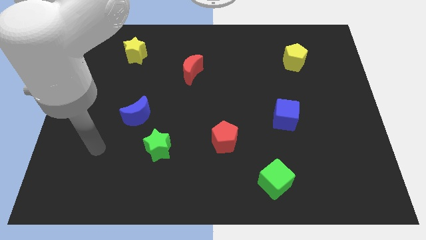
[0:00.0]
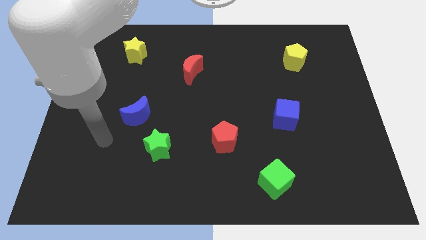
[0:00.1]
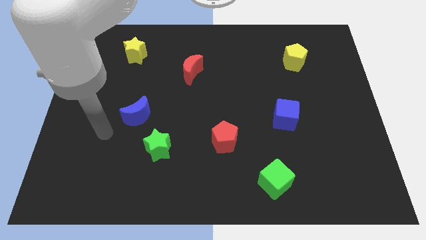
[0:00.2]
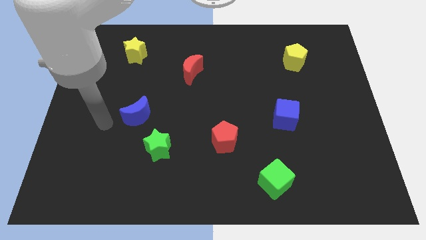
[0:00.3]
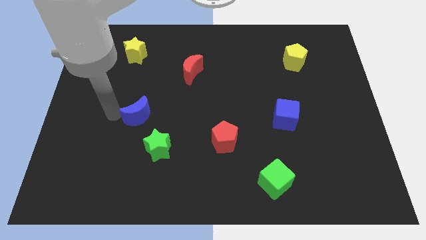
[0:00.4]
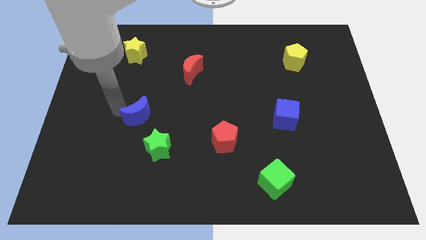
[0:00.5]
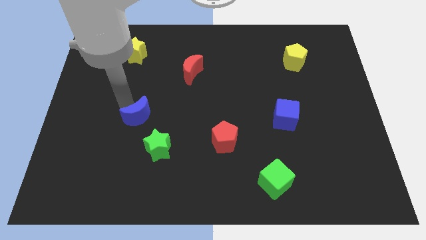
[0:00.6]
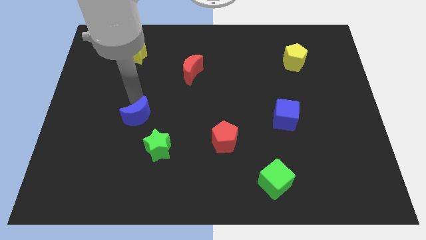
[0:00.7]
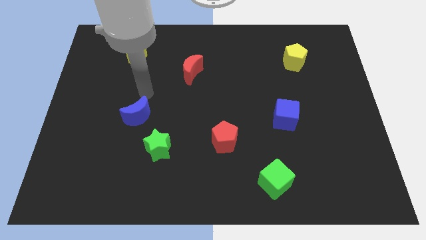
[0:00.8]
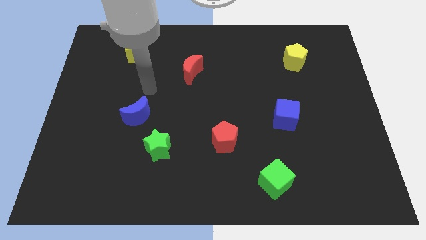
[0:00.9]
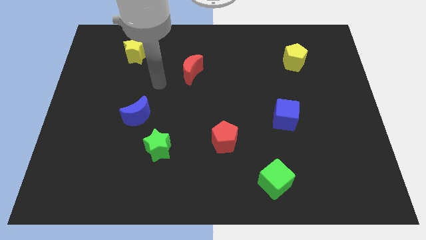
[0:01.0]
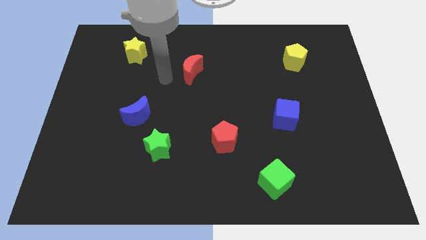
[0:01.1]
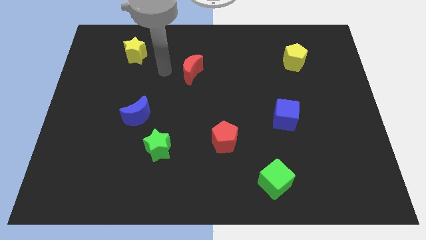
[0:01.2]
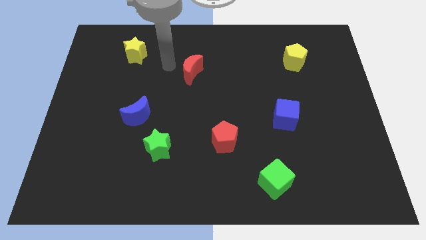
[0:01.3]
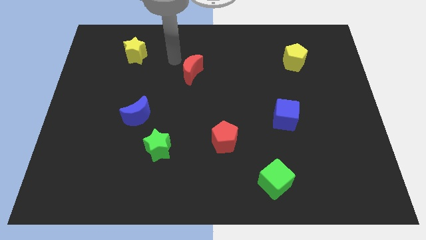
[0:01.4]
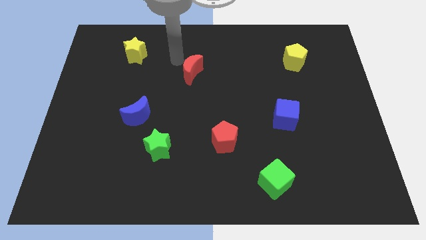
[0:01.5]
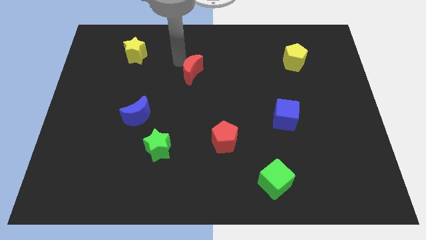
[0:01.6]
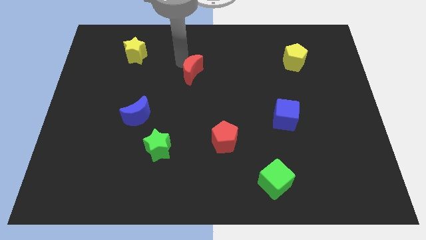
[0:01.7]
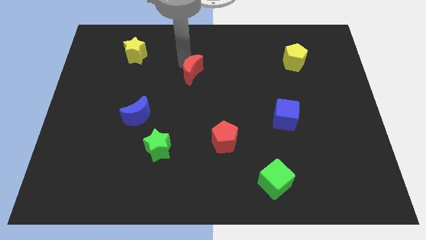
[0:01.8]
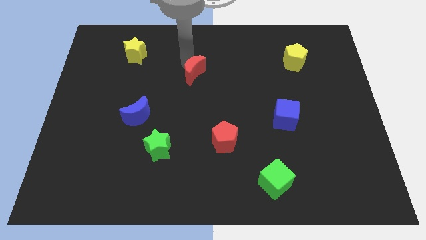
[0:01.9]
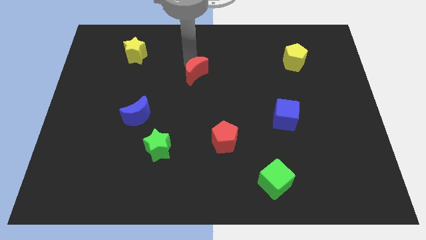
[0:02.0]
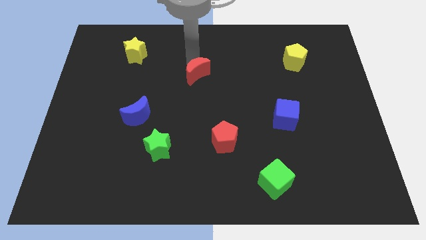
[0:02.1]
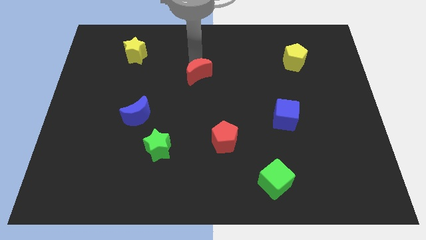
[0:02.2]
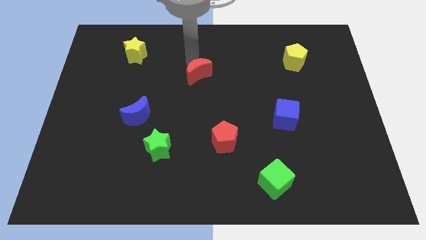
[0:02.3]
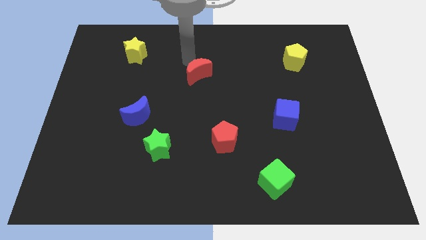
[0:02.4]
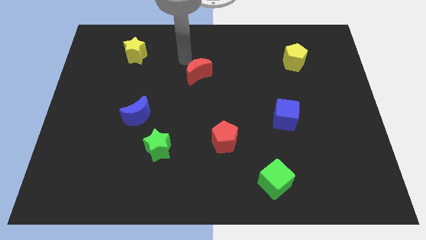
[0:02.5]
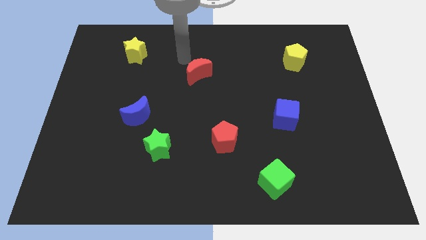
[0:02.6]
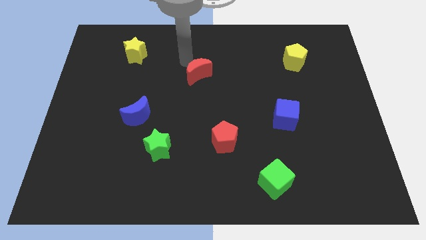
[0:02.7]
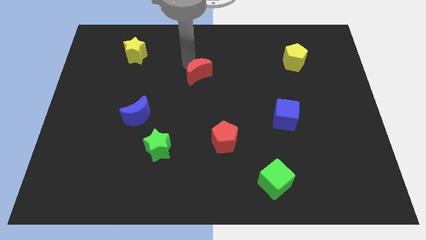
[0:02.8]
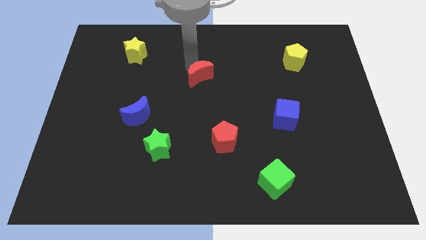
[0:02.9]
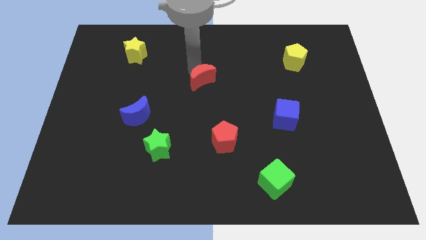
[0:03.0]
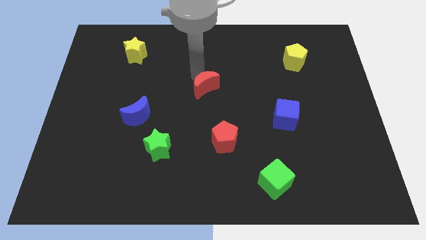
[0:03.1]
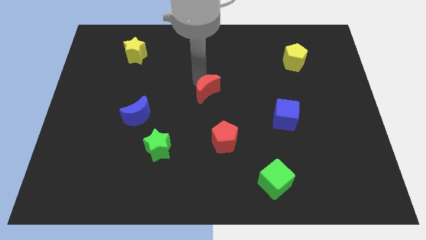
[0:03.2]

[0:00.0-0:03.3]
slide the red moon a little down and then to the right

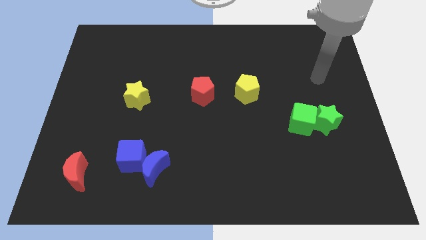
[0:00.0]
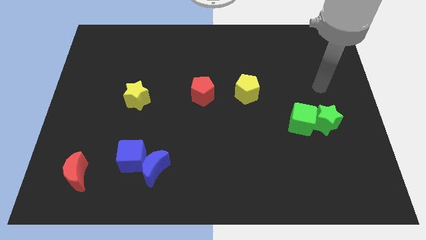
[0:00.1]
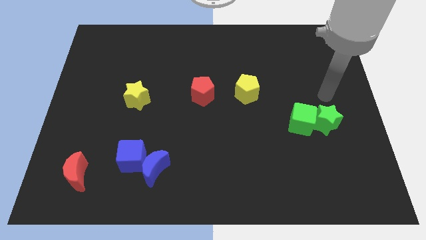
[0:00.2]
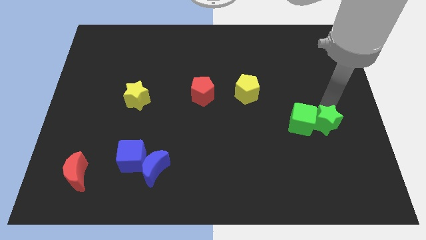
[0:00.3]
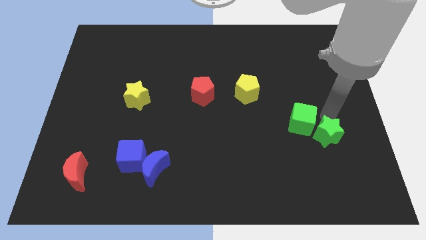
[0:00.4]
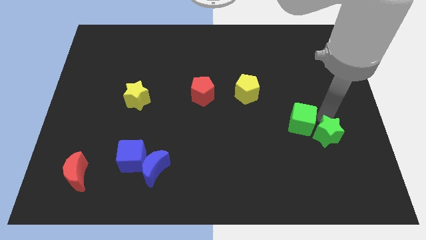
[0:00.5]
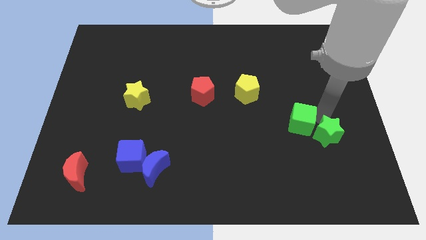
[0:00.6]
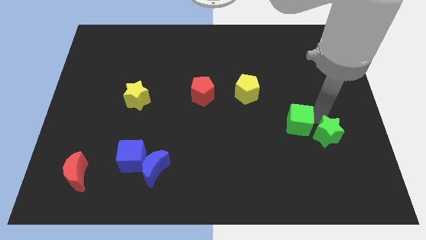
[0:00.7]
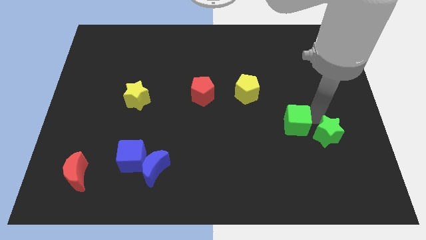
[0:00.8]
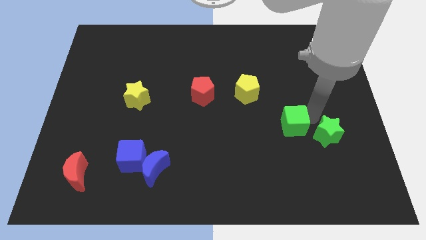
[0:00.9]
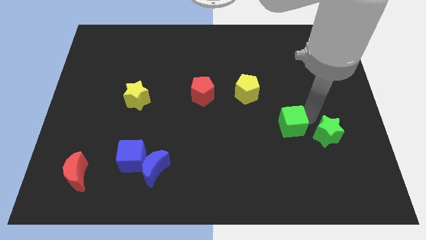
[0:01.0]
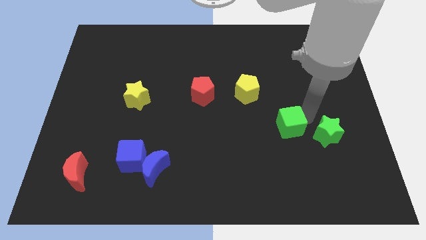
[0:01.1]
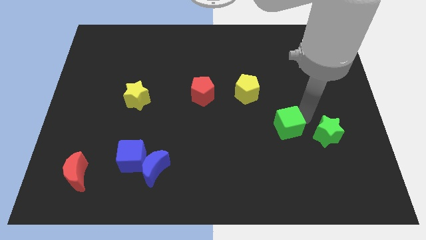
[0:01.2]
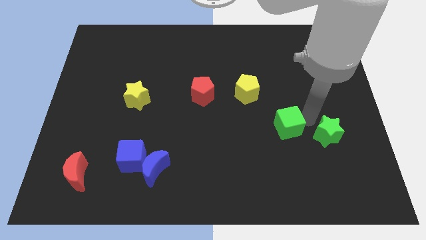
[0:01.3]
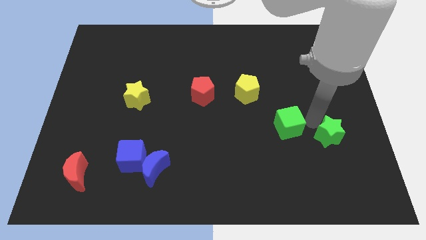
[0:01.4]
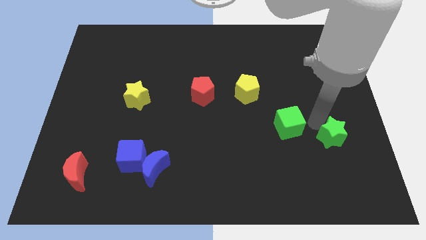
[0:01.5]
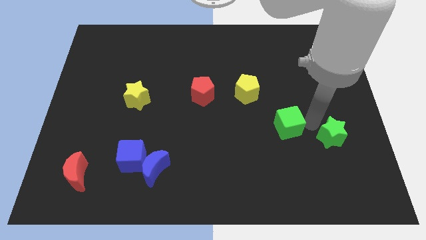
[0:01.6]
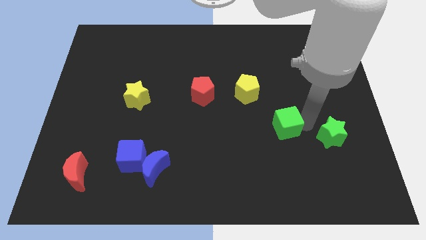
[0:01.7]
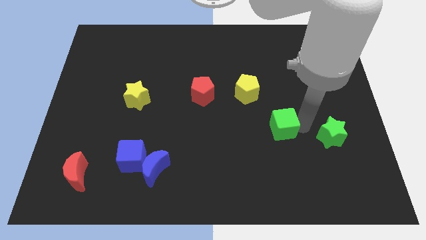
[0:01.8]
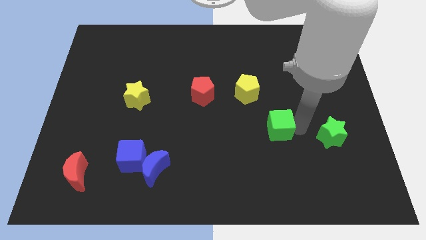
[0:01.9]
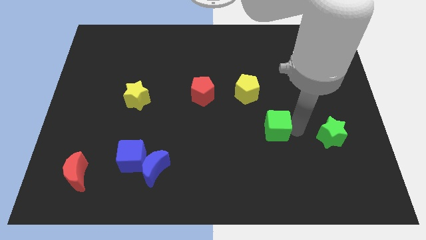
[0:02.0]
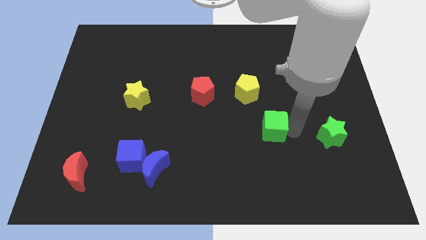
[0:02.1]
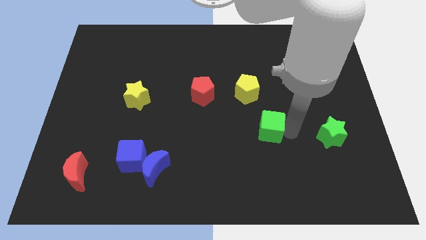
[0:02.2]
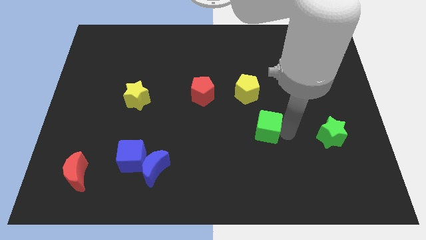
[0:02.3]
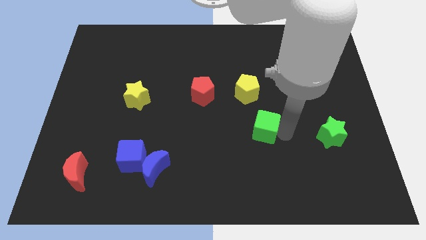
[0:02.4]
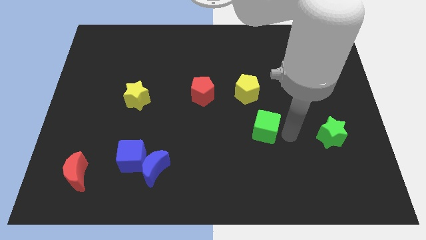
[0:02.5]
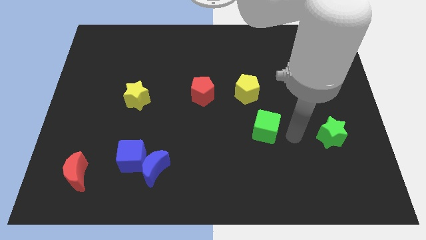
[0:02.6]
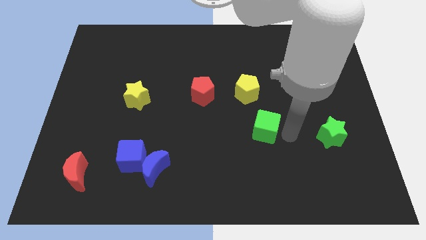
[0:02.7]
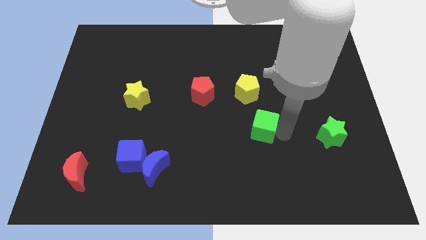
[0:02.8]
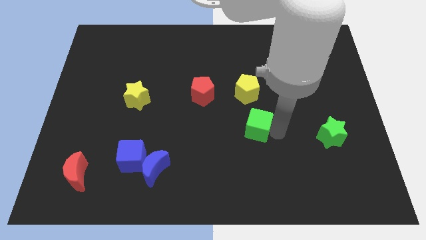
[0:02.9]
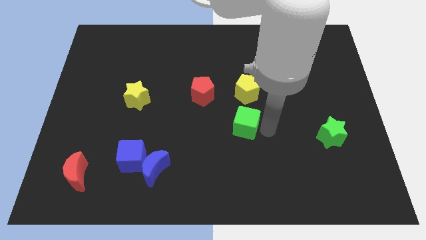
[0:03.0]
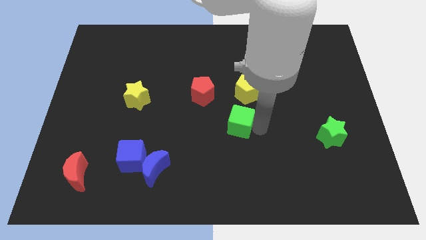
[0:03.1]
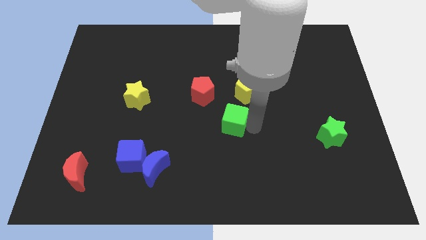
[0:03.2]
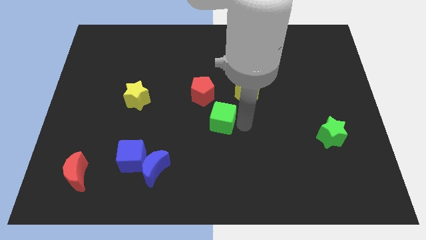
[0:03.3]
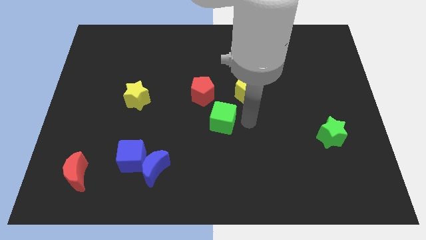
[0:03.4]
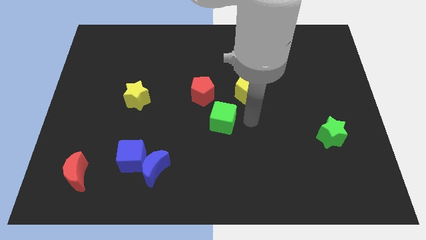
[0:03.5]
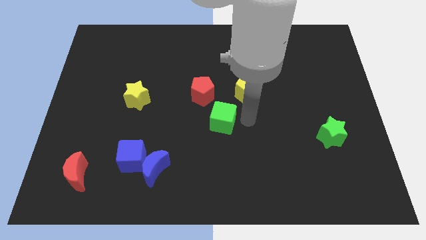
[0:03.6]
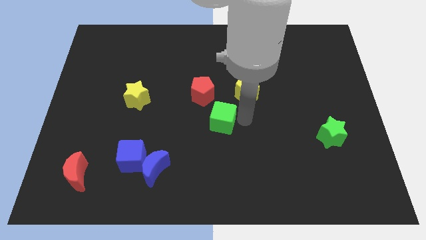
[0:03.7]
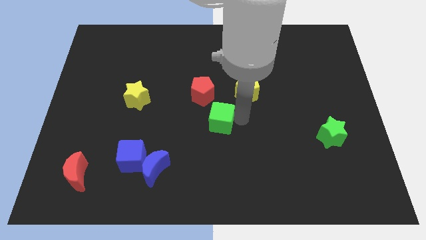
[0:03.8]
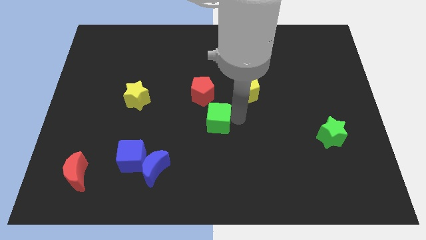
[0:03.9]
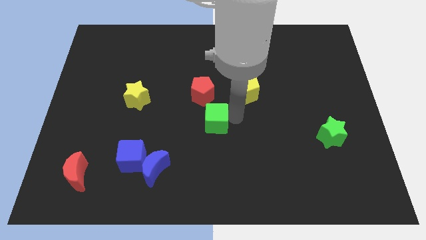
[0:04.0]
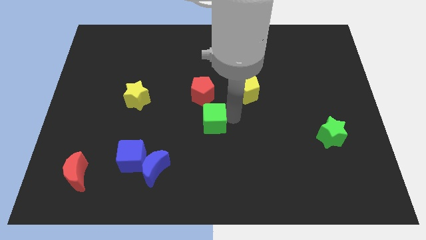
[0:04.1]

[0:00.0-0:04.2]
move the green cube to the left

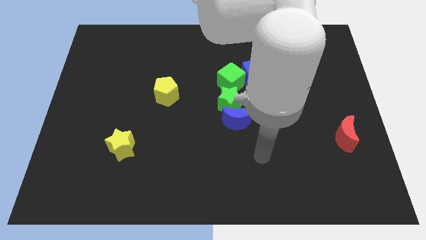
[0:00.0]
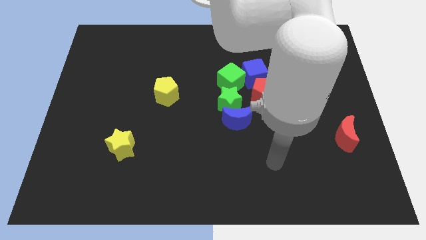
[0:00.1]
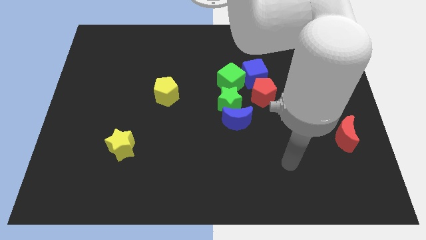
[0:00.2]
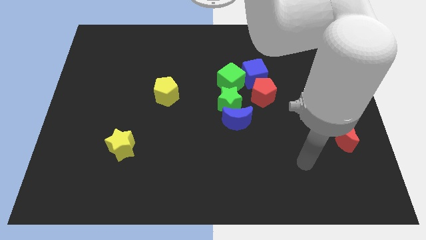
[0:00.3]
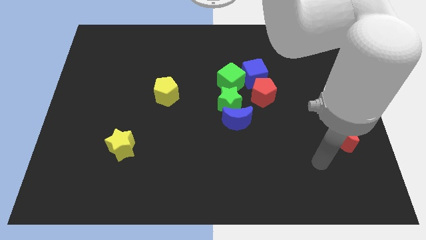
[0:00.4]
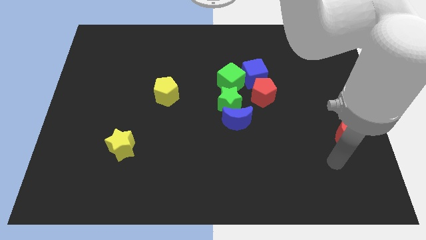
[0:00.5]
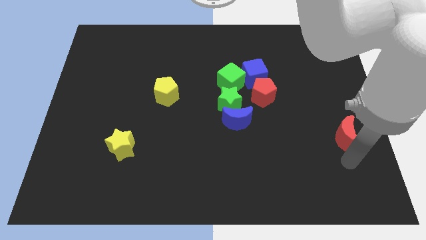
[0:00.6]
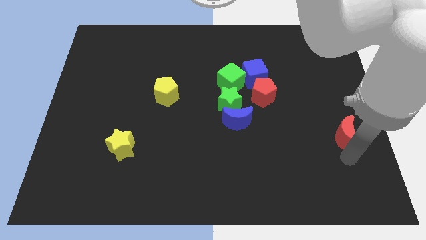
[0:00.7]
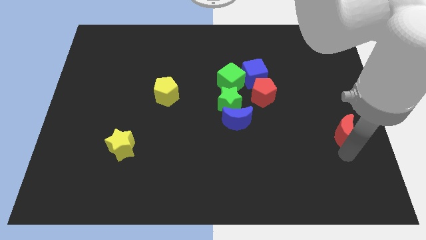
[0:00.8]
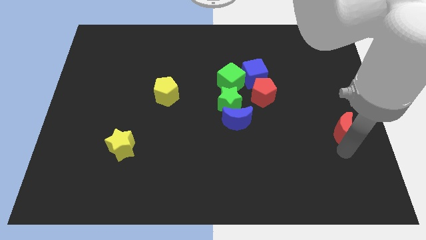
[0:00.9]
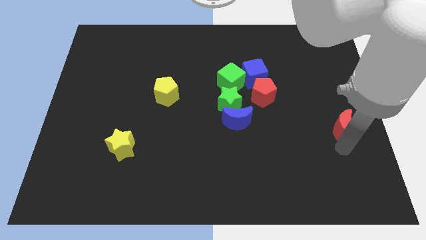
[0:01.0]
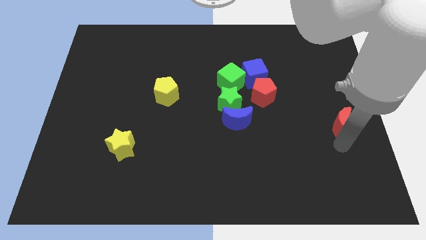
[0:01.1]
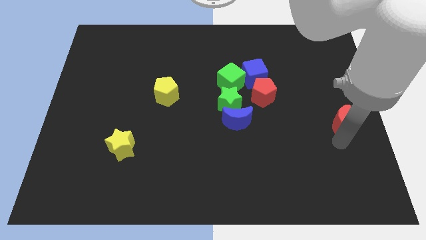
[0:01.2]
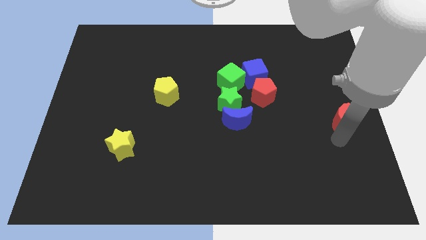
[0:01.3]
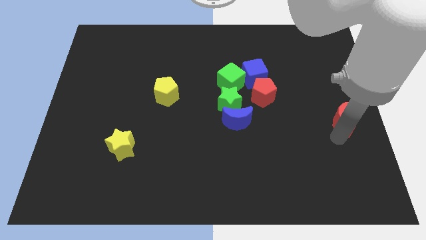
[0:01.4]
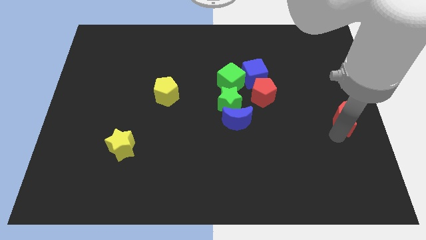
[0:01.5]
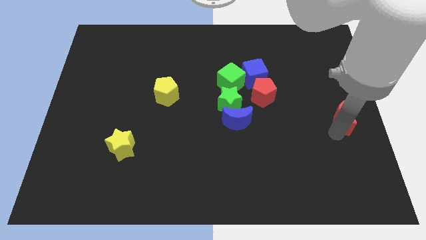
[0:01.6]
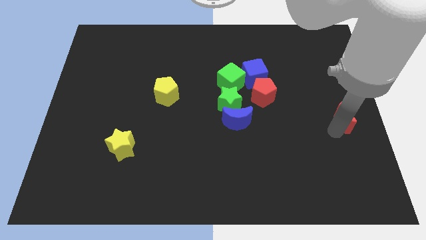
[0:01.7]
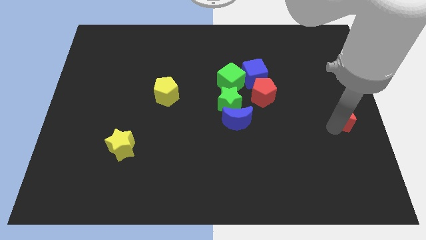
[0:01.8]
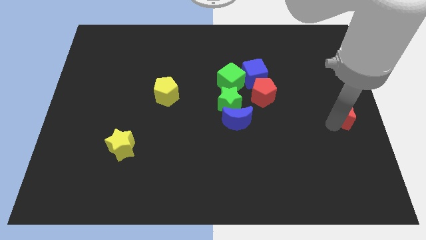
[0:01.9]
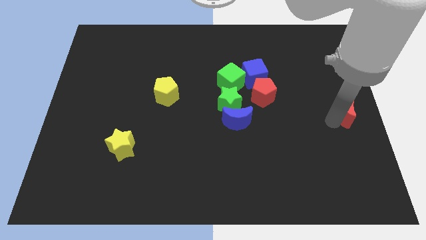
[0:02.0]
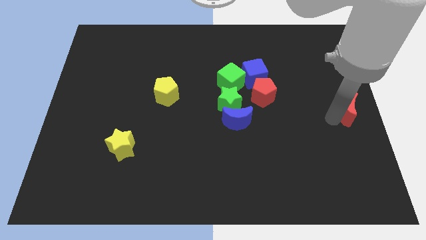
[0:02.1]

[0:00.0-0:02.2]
push the red moon somewhat upwards
